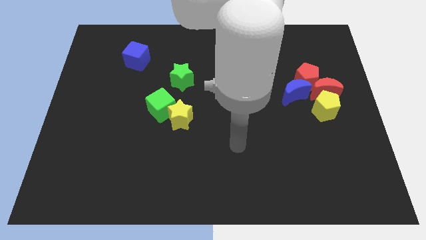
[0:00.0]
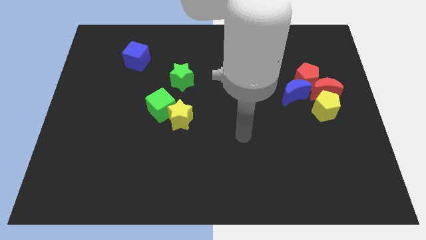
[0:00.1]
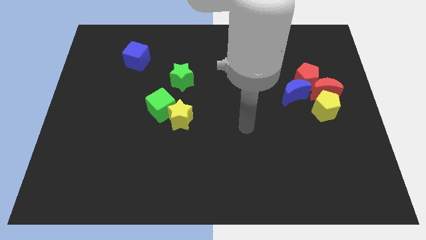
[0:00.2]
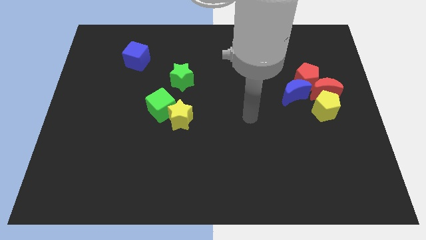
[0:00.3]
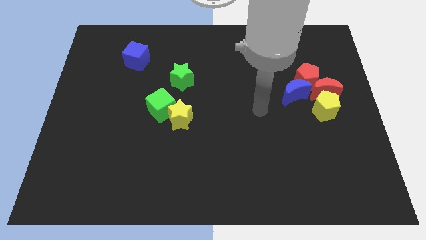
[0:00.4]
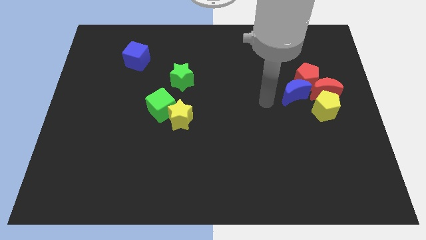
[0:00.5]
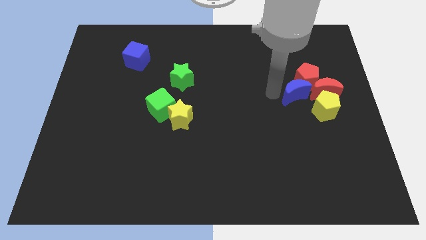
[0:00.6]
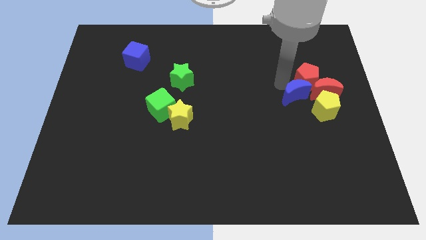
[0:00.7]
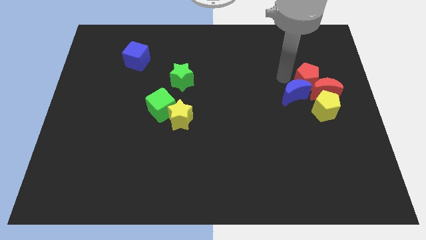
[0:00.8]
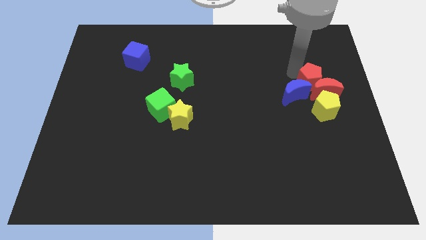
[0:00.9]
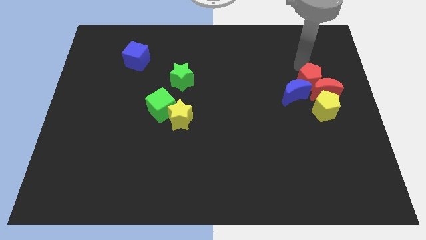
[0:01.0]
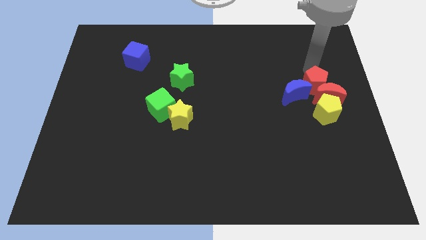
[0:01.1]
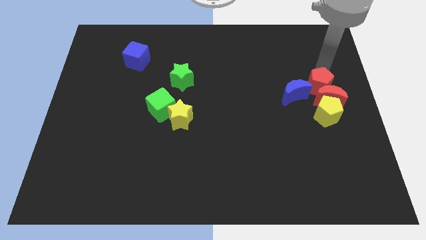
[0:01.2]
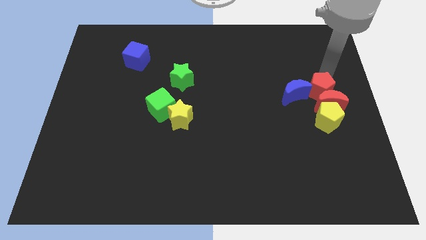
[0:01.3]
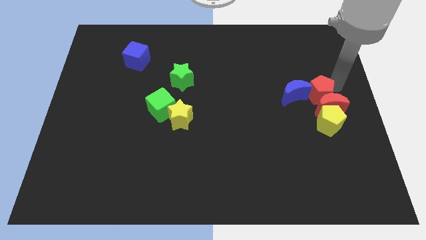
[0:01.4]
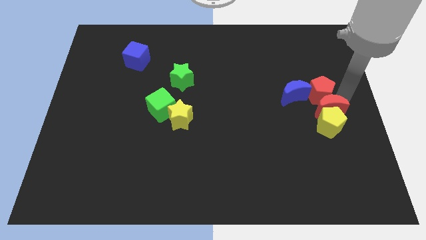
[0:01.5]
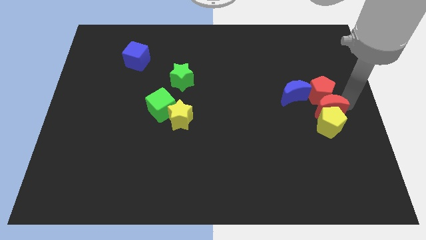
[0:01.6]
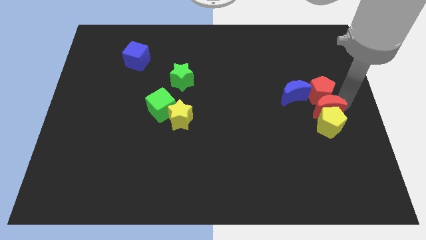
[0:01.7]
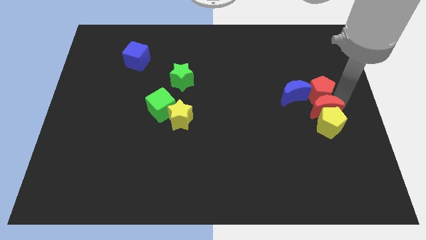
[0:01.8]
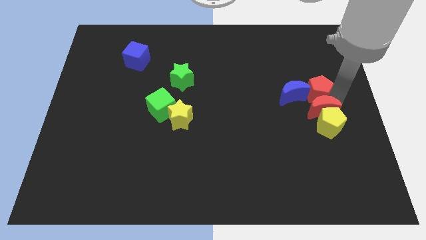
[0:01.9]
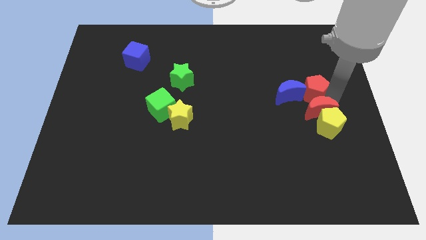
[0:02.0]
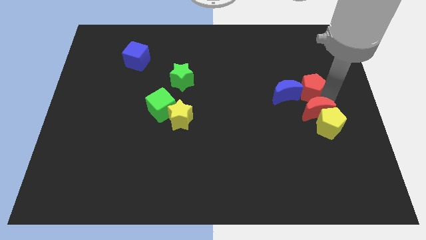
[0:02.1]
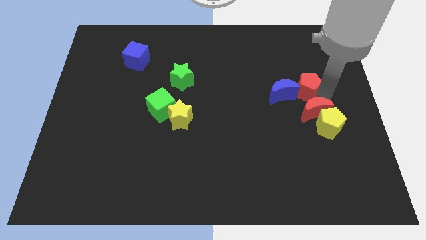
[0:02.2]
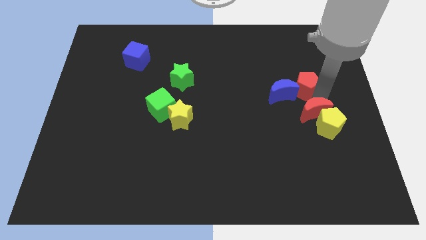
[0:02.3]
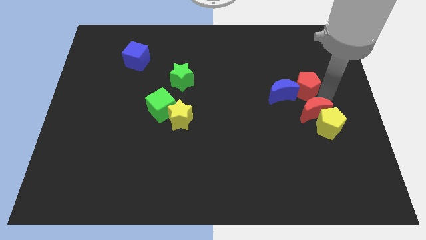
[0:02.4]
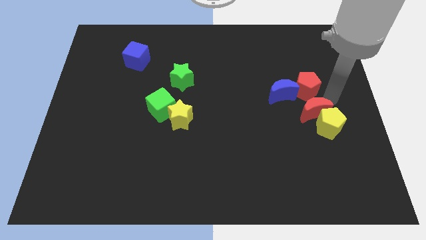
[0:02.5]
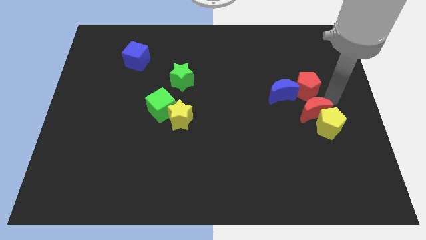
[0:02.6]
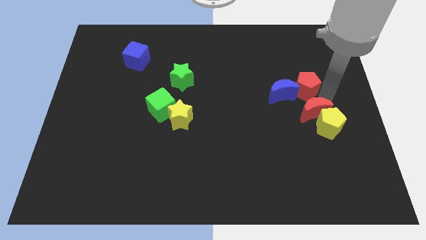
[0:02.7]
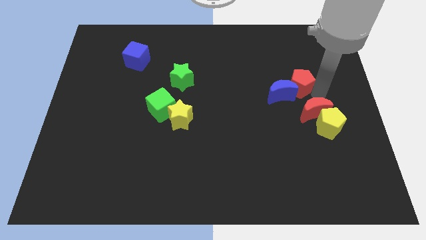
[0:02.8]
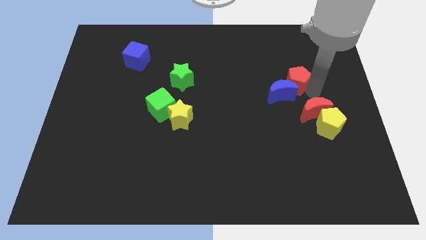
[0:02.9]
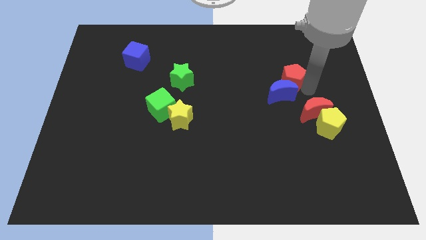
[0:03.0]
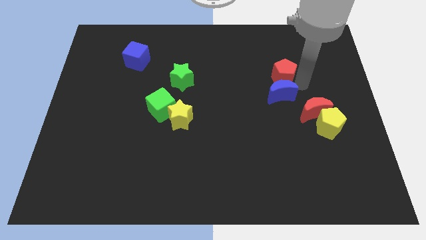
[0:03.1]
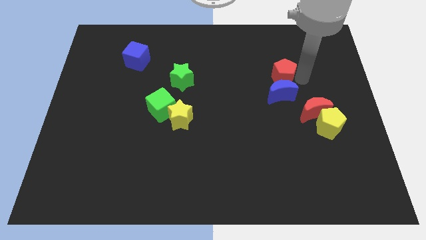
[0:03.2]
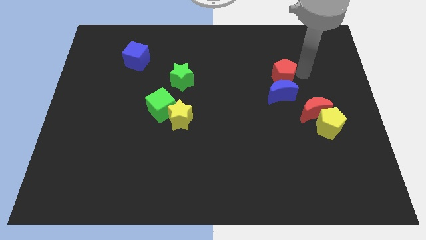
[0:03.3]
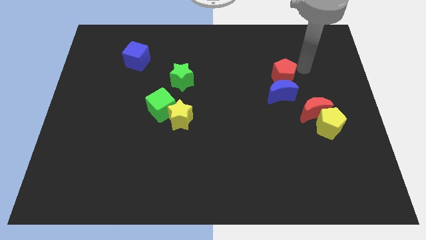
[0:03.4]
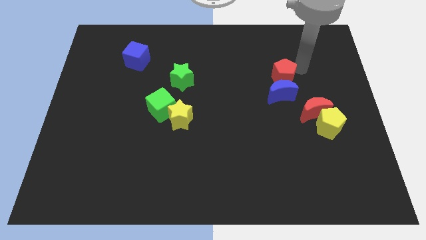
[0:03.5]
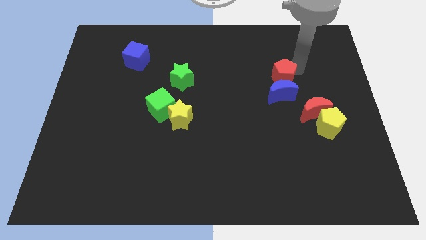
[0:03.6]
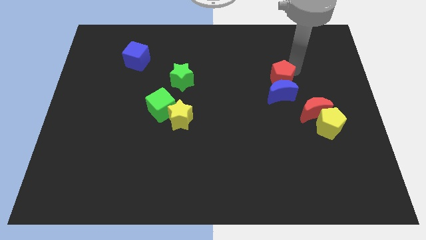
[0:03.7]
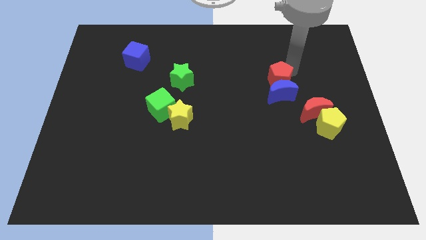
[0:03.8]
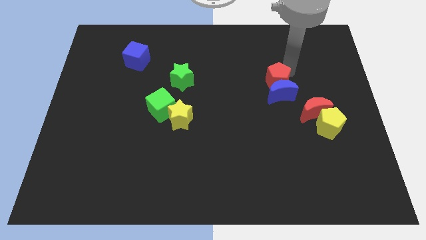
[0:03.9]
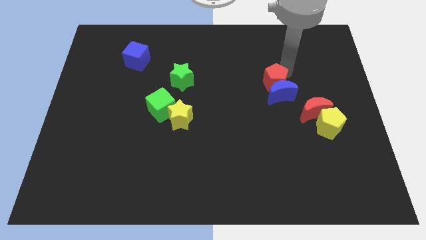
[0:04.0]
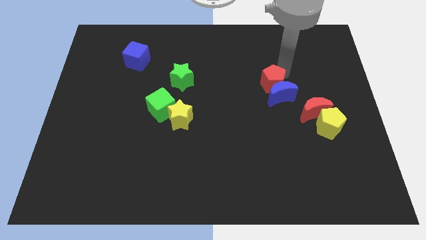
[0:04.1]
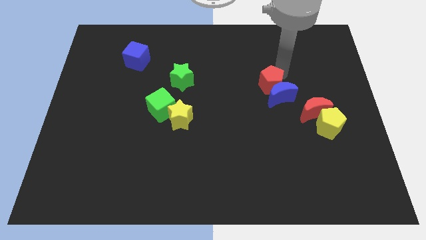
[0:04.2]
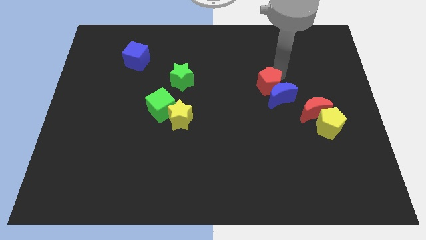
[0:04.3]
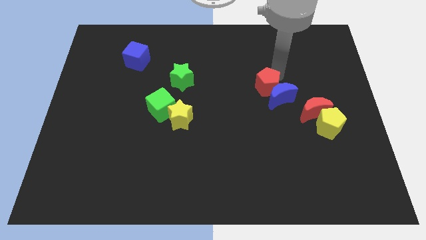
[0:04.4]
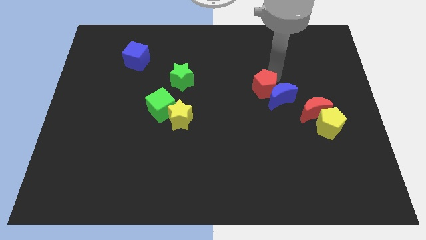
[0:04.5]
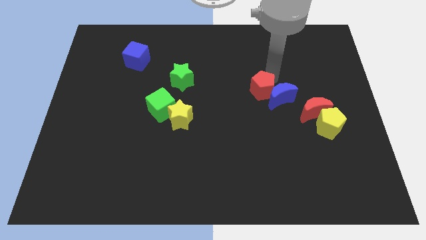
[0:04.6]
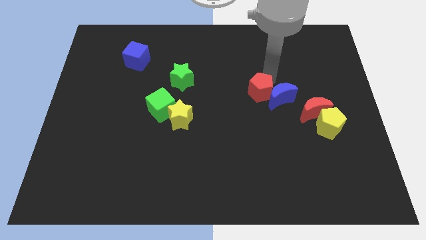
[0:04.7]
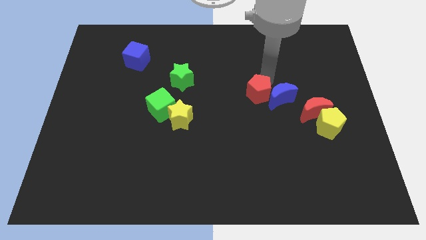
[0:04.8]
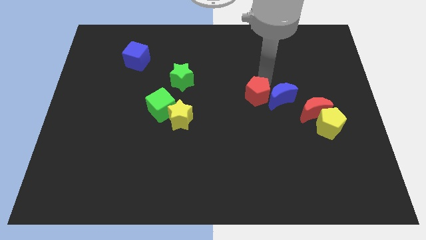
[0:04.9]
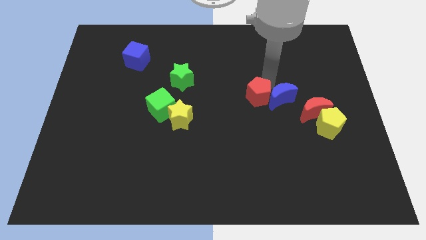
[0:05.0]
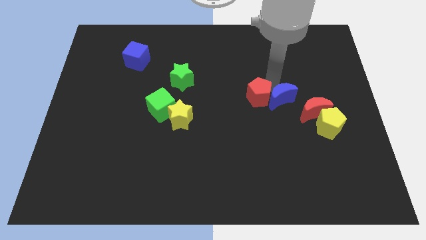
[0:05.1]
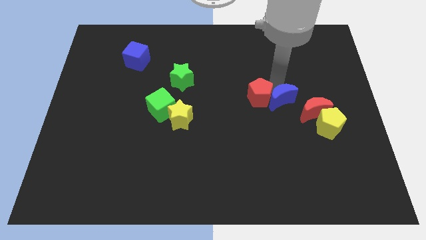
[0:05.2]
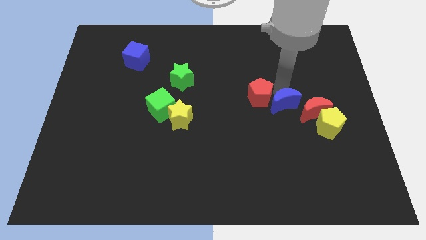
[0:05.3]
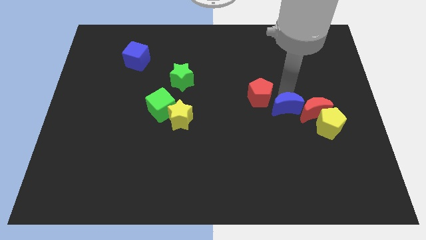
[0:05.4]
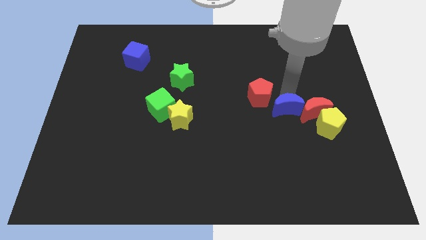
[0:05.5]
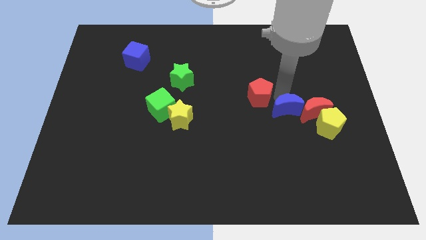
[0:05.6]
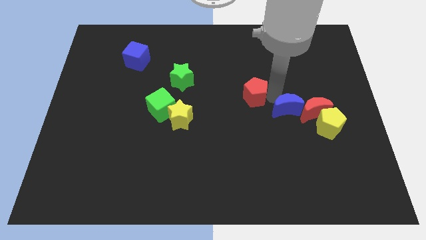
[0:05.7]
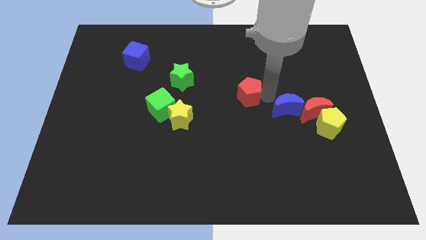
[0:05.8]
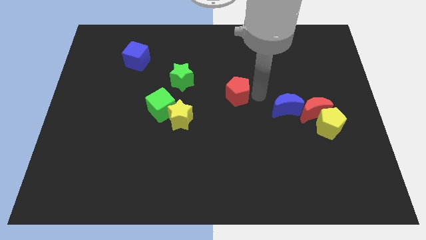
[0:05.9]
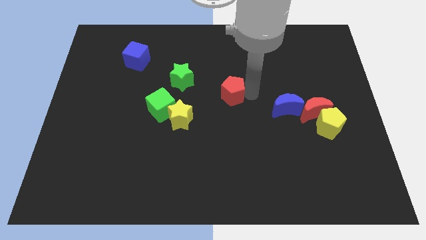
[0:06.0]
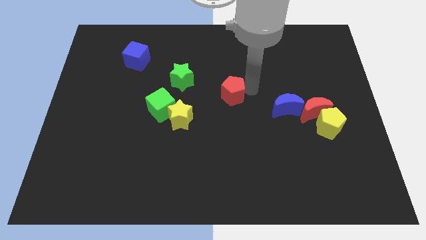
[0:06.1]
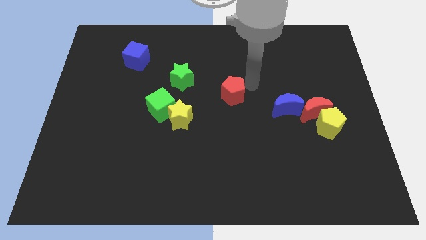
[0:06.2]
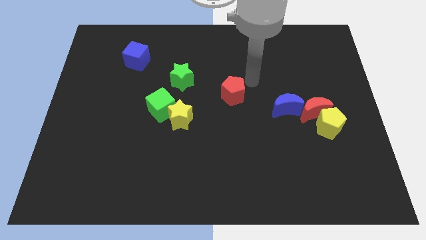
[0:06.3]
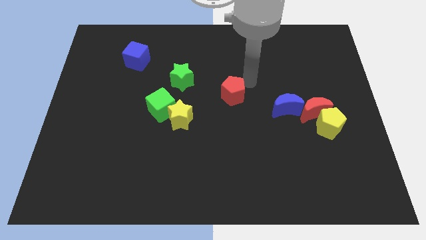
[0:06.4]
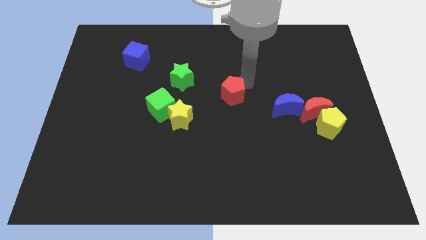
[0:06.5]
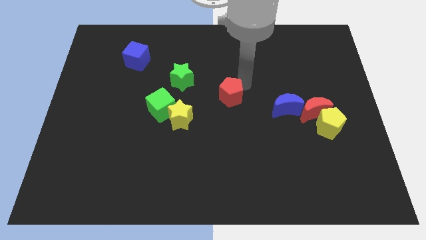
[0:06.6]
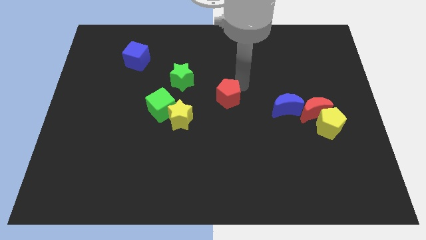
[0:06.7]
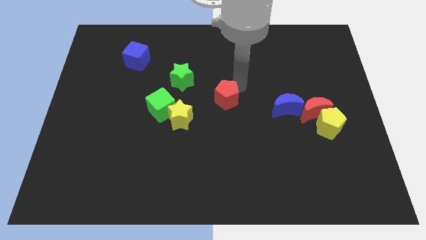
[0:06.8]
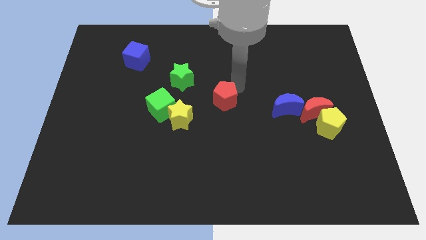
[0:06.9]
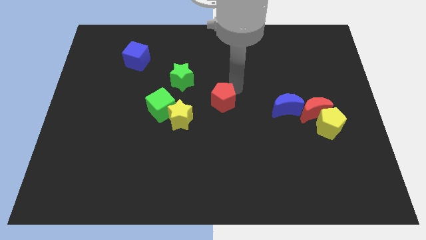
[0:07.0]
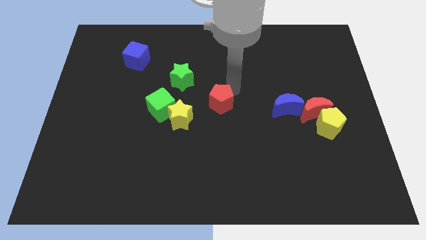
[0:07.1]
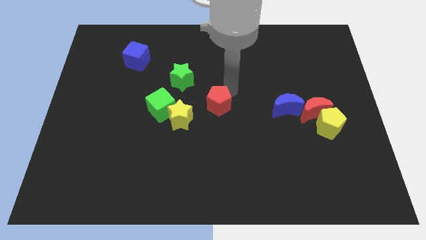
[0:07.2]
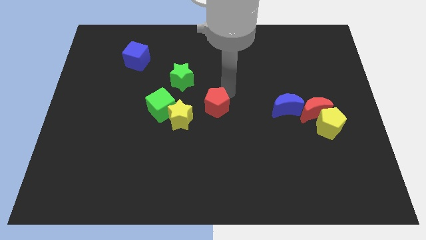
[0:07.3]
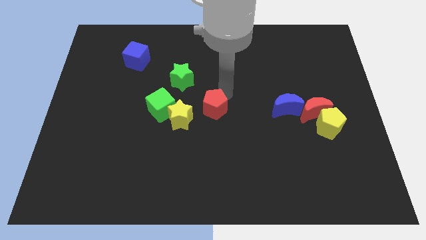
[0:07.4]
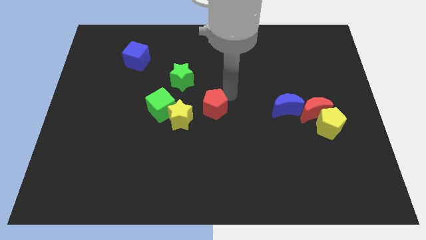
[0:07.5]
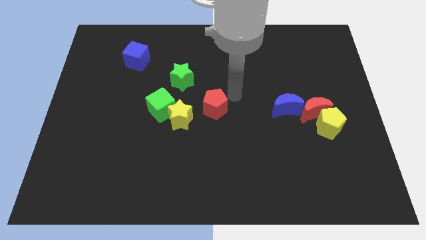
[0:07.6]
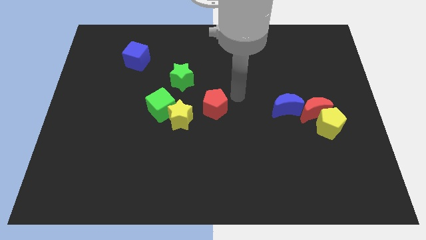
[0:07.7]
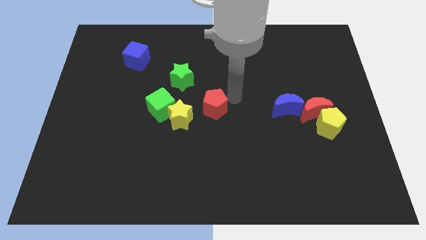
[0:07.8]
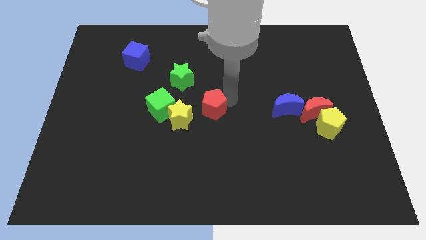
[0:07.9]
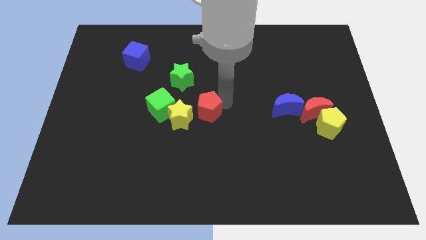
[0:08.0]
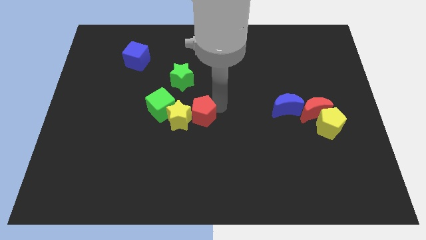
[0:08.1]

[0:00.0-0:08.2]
put the red pentagon close to the yellow star
